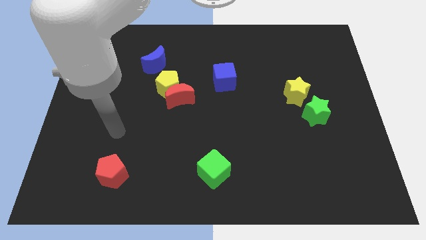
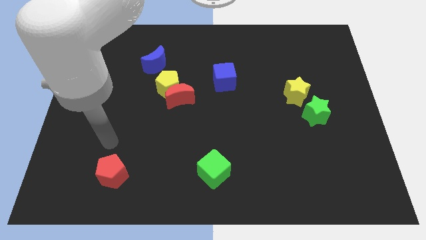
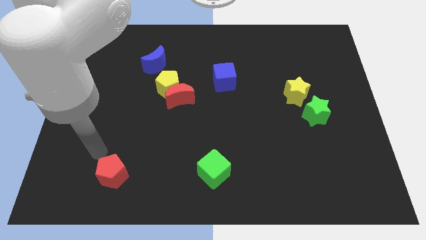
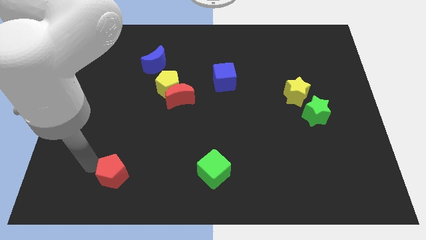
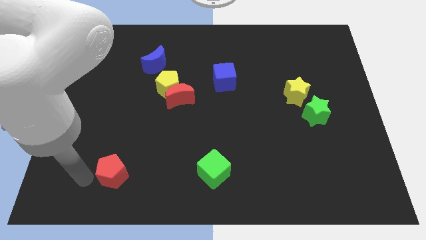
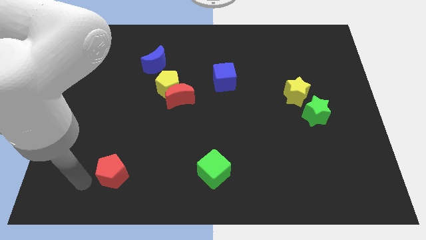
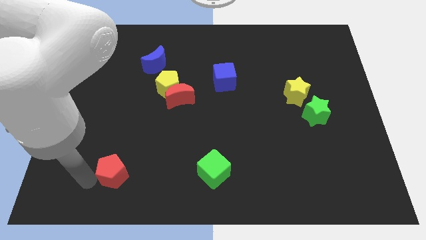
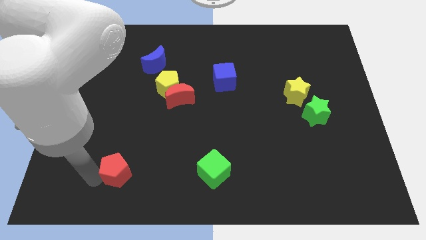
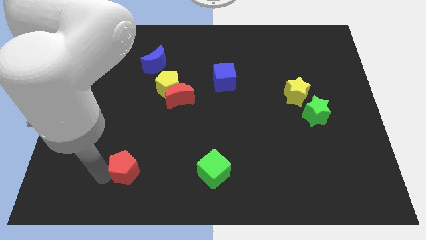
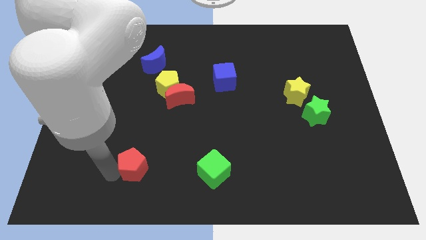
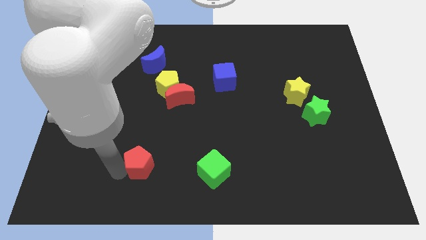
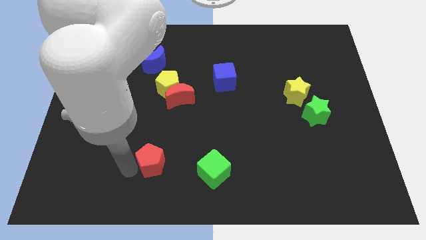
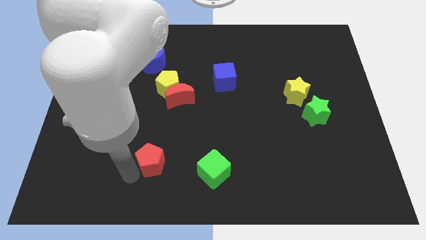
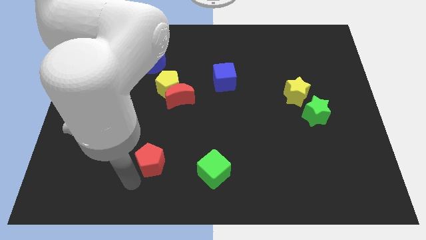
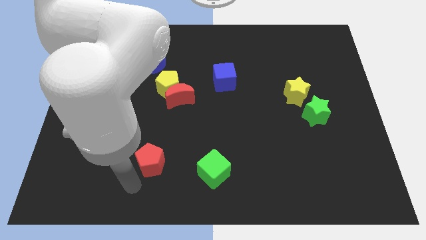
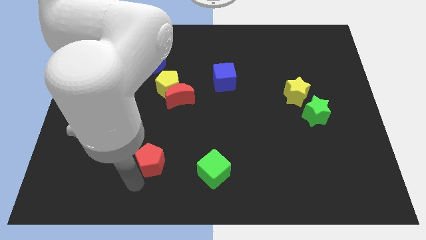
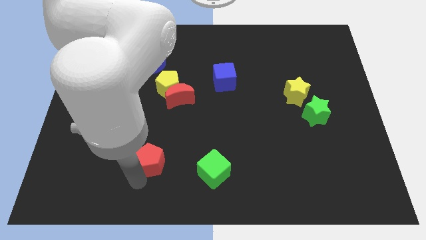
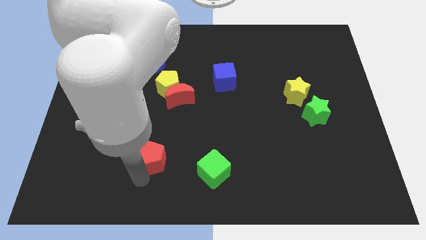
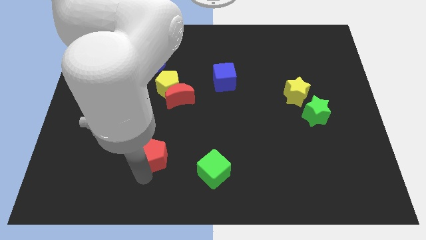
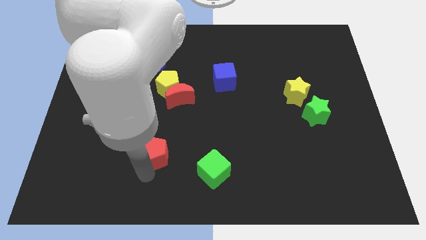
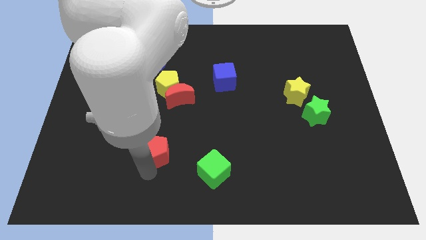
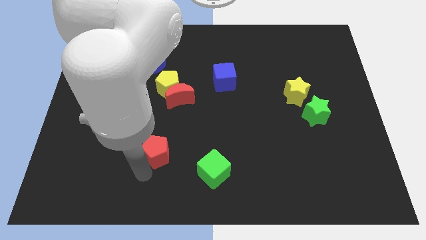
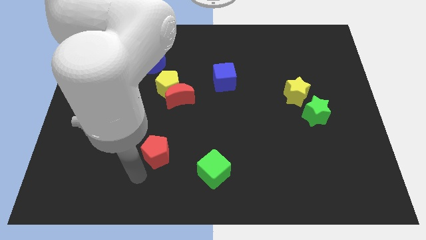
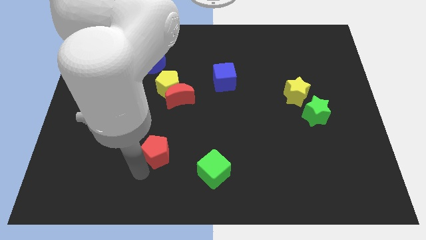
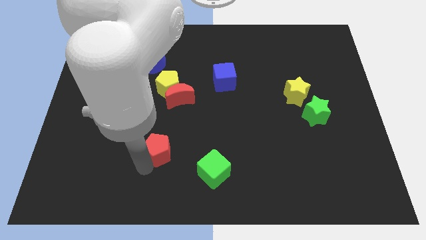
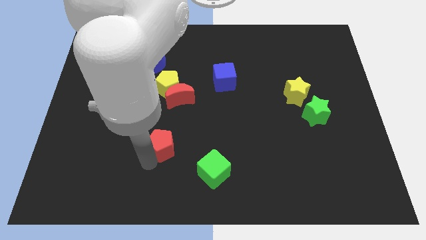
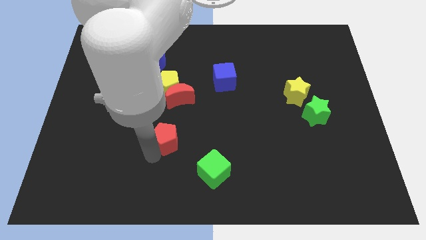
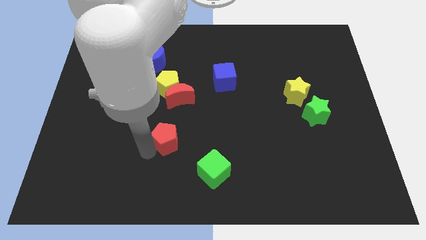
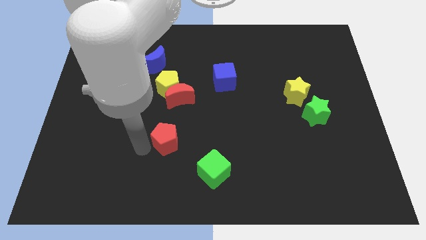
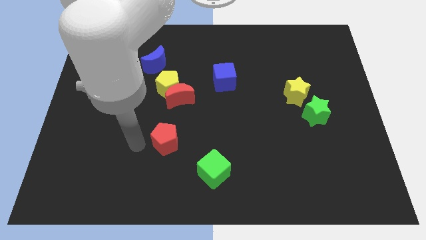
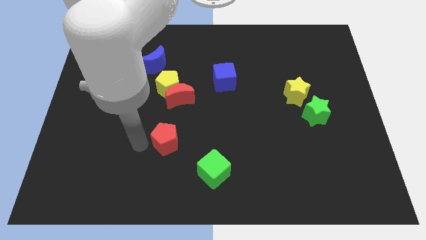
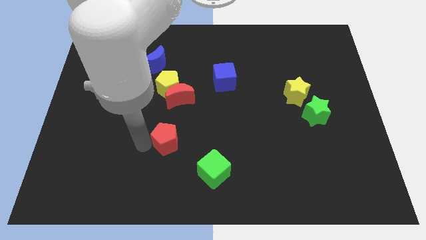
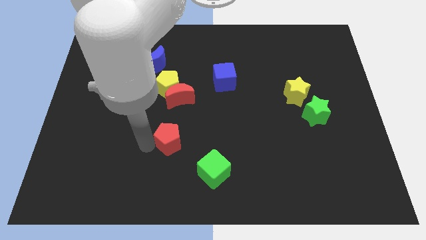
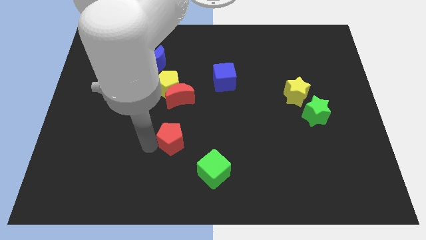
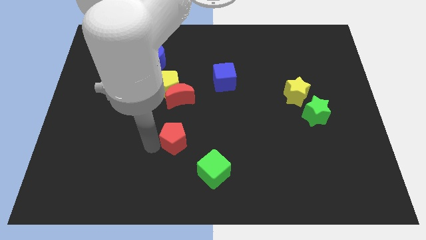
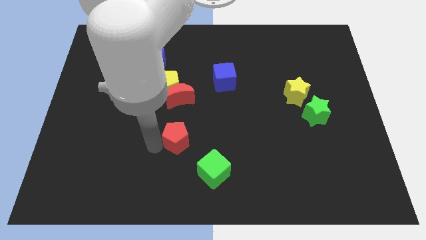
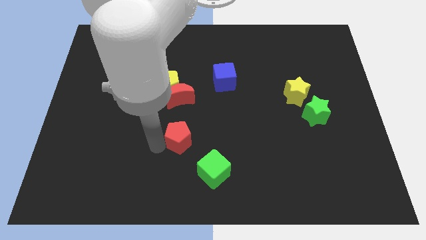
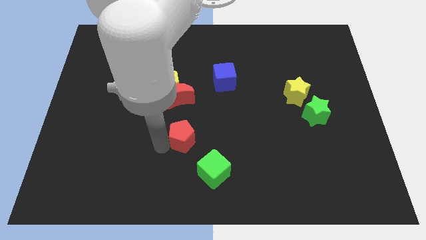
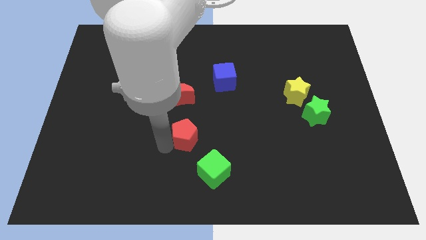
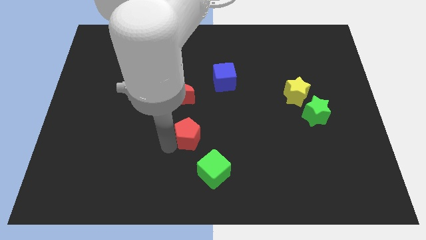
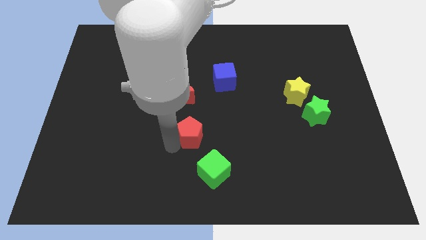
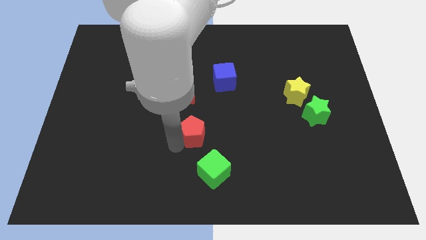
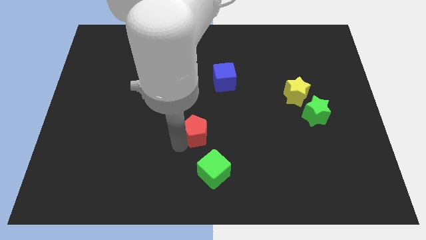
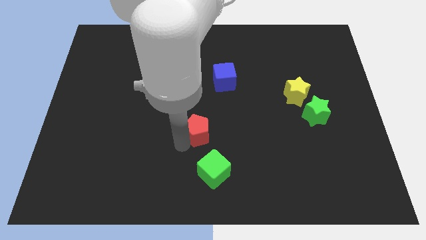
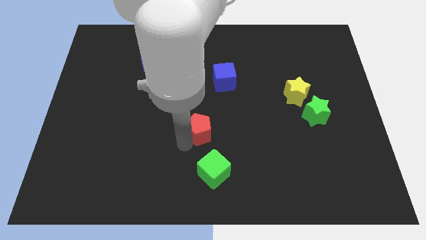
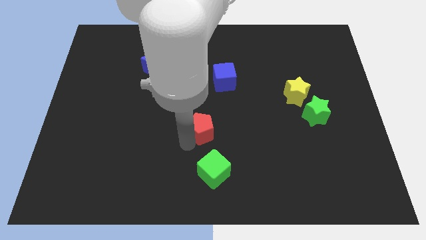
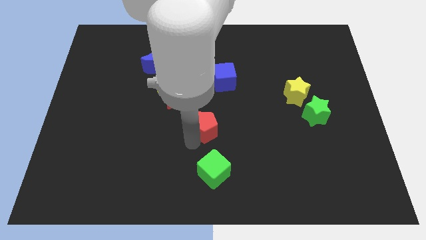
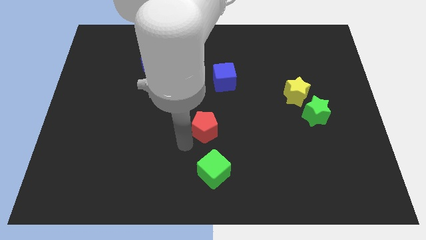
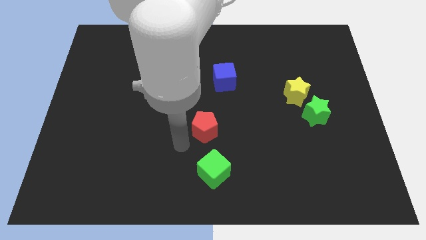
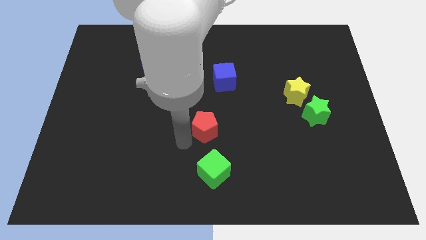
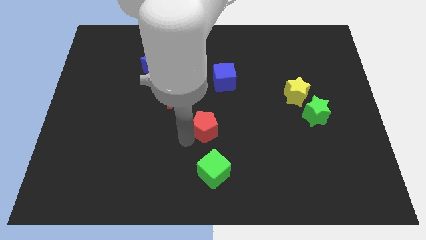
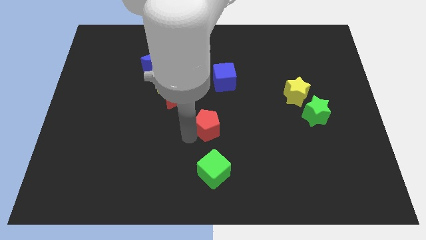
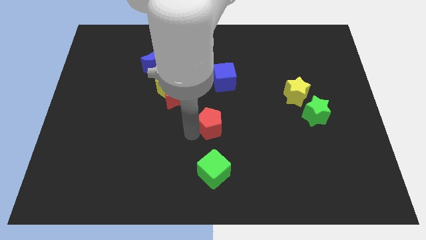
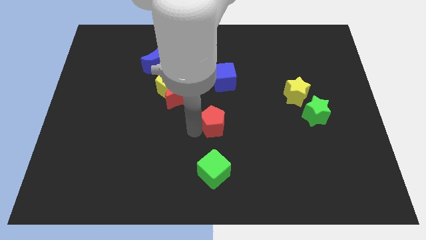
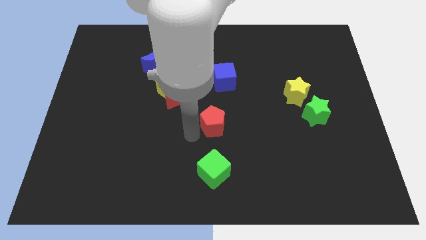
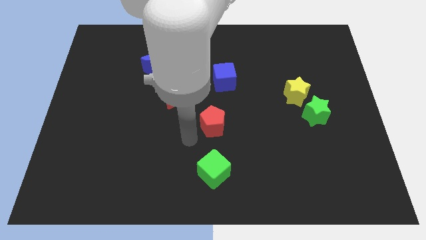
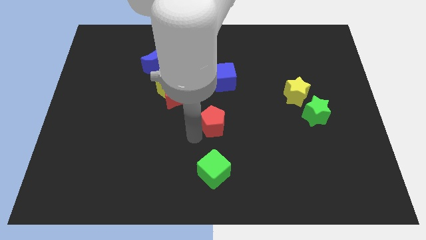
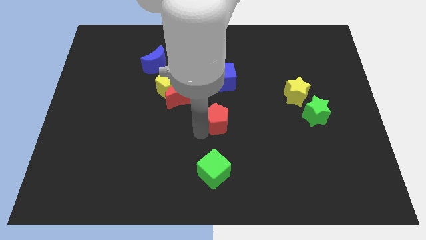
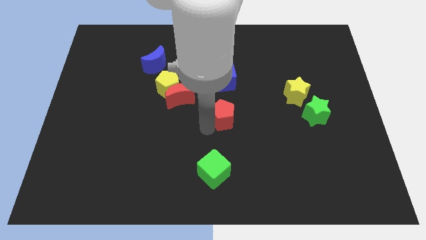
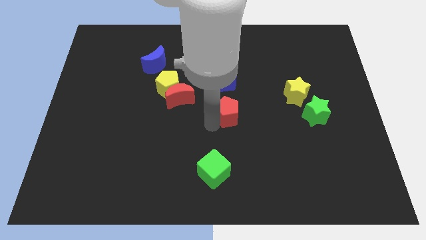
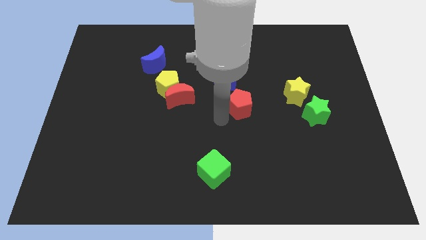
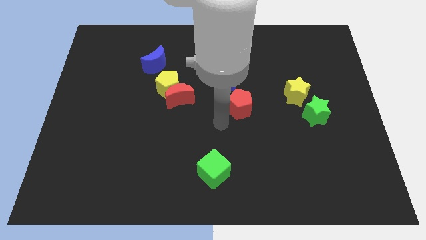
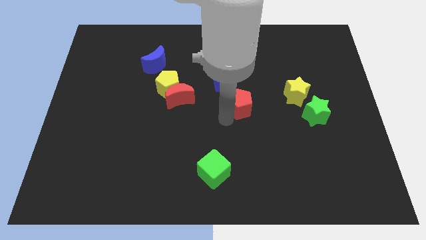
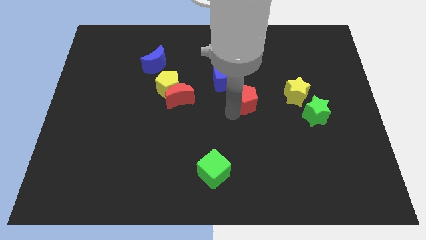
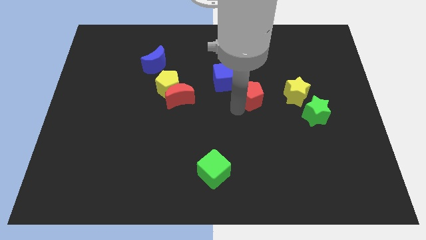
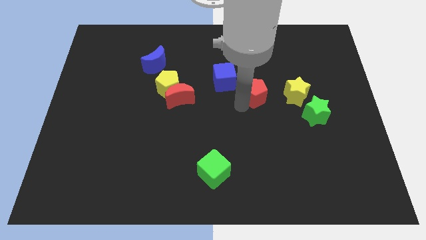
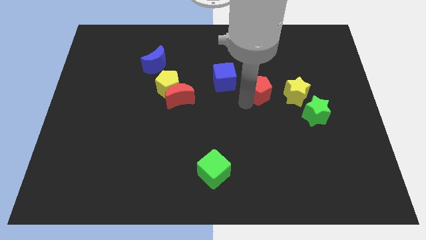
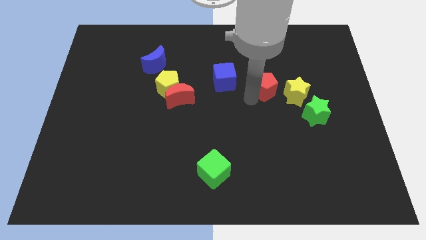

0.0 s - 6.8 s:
put the red pentagon to the top left side of the yellow star
